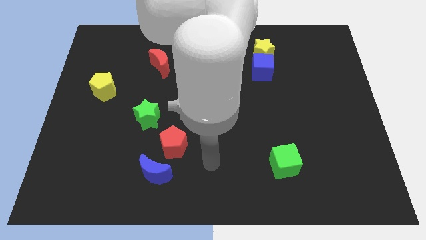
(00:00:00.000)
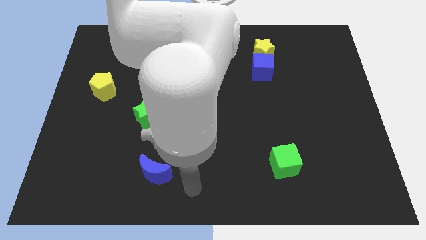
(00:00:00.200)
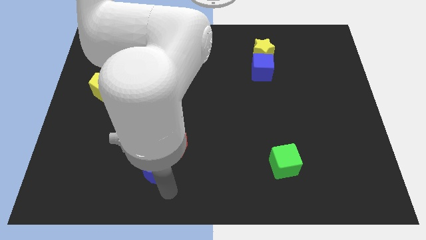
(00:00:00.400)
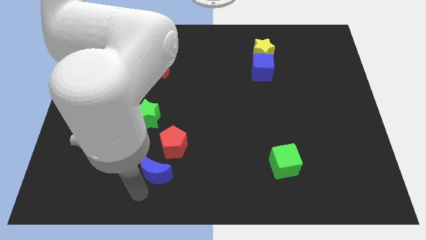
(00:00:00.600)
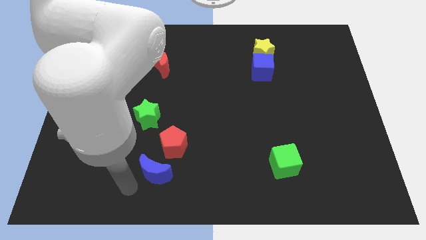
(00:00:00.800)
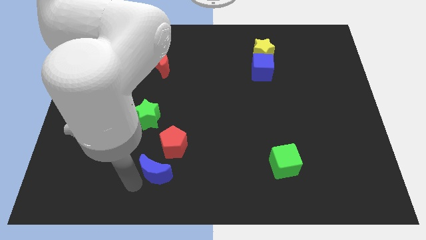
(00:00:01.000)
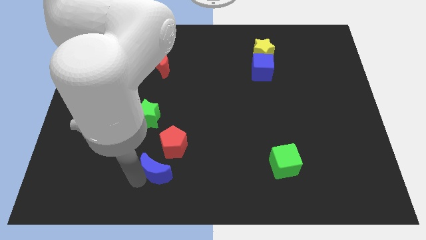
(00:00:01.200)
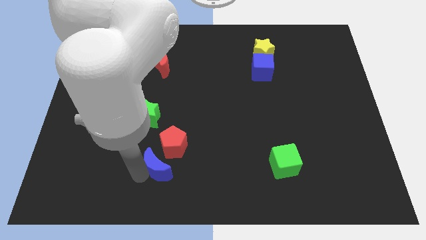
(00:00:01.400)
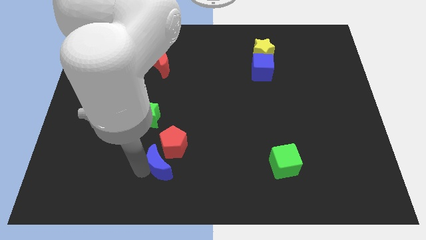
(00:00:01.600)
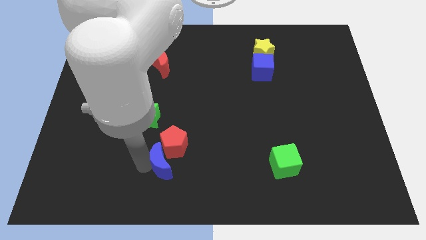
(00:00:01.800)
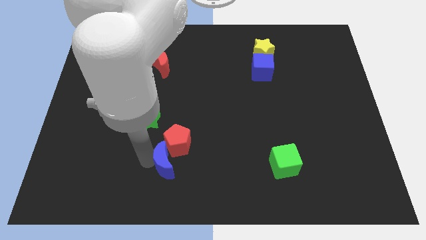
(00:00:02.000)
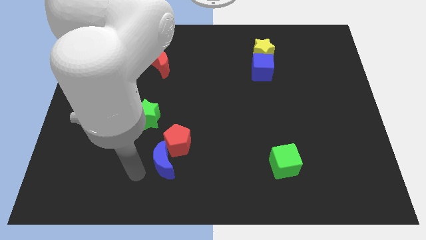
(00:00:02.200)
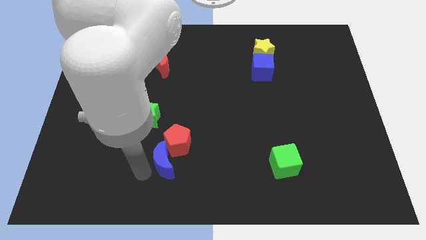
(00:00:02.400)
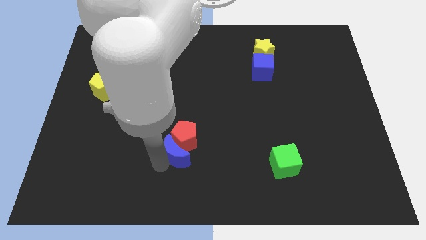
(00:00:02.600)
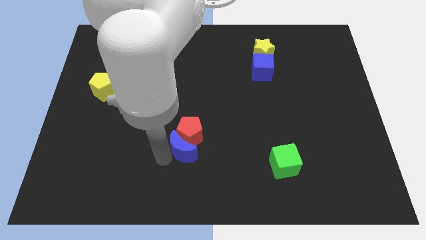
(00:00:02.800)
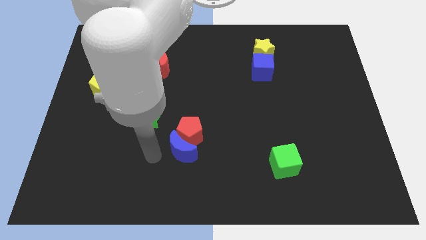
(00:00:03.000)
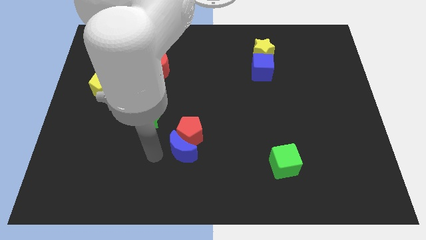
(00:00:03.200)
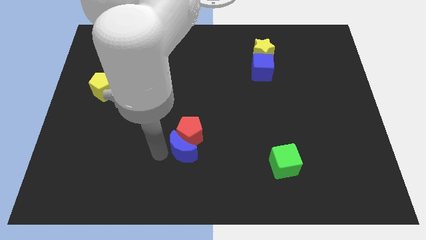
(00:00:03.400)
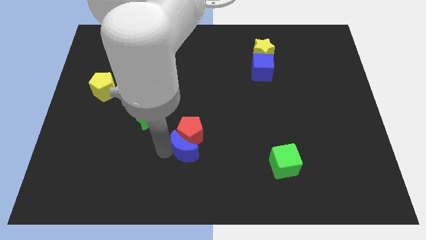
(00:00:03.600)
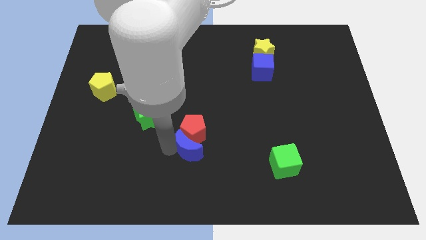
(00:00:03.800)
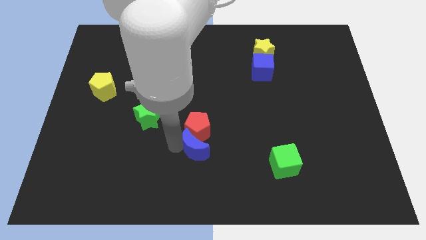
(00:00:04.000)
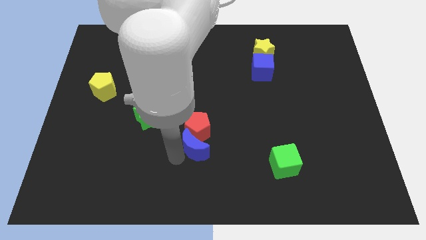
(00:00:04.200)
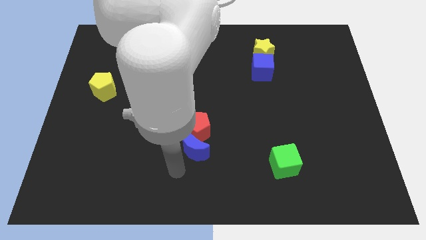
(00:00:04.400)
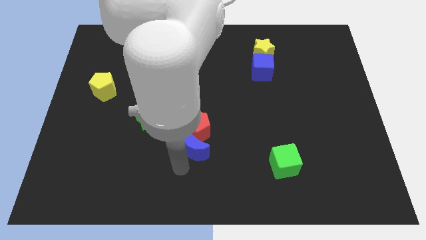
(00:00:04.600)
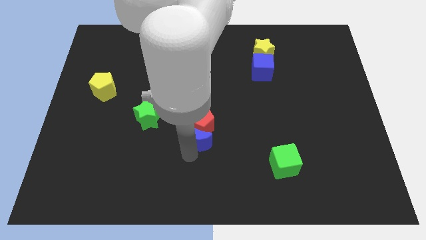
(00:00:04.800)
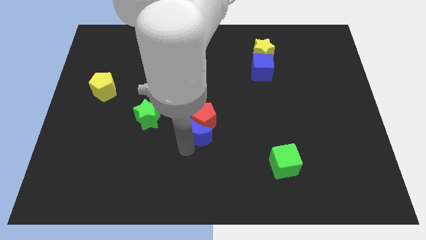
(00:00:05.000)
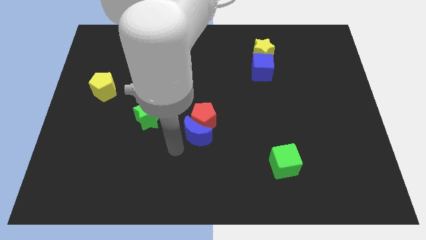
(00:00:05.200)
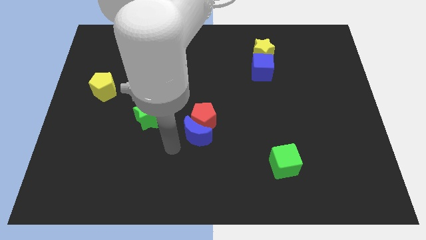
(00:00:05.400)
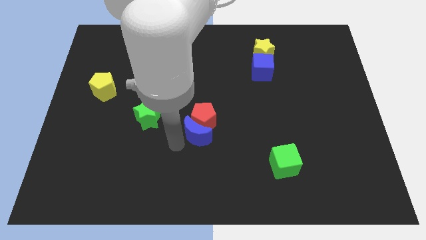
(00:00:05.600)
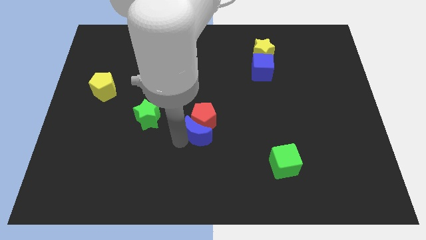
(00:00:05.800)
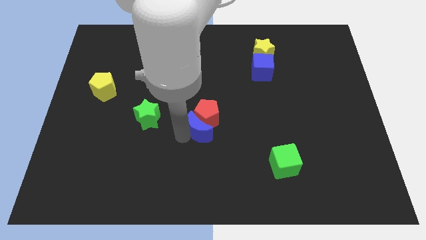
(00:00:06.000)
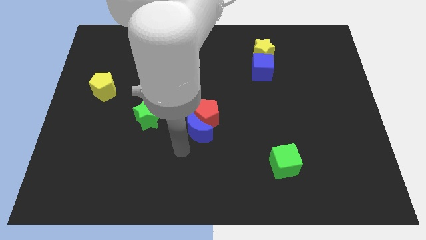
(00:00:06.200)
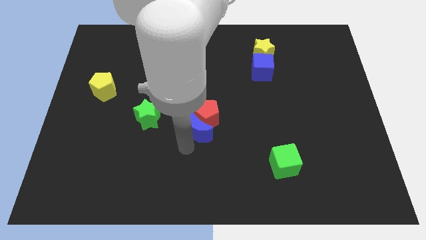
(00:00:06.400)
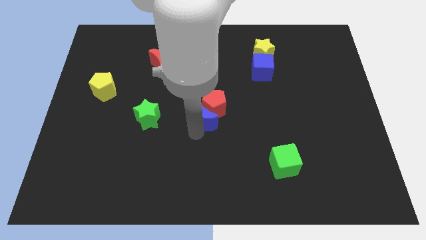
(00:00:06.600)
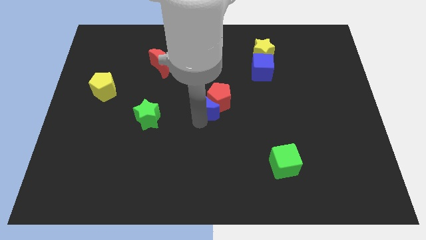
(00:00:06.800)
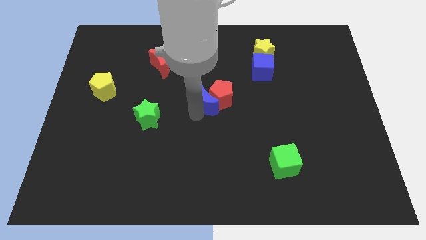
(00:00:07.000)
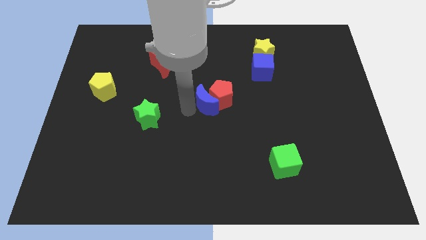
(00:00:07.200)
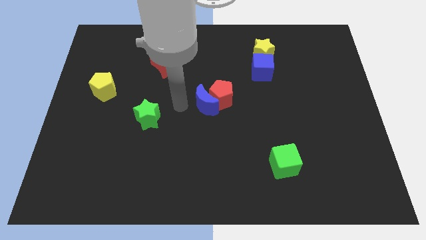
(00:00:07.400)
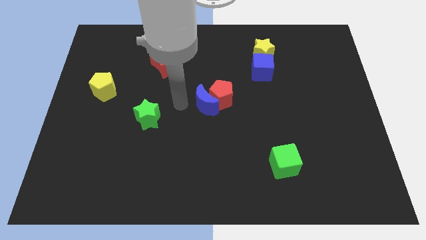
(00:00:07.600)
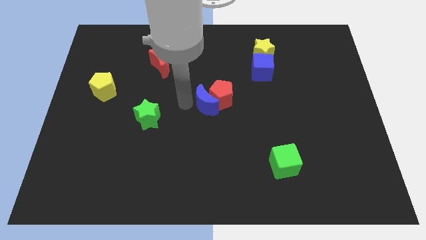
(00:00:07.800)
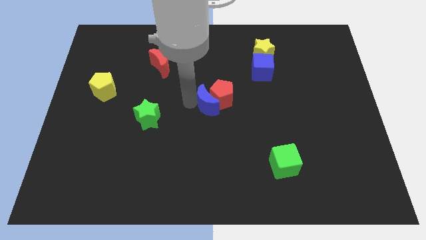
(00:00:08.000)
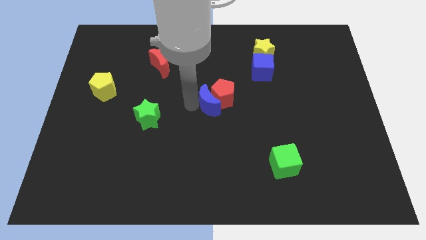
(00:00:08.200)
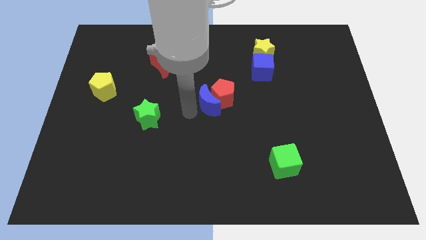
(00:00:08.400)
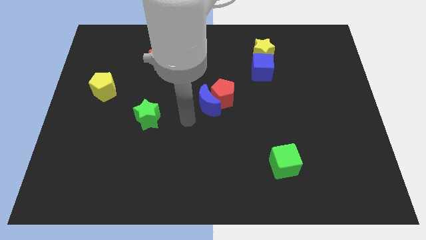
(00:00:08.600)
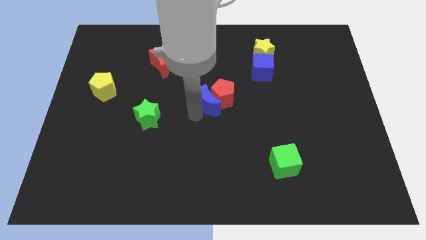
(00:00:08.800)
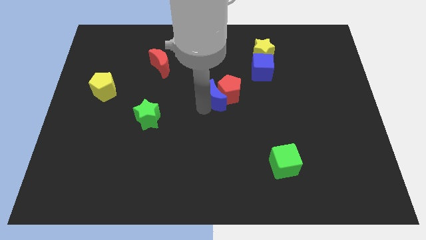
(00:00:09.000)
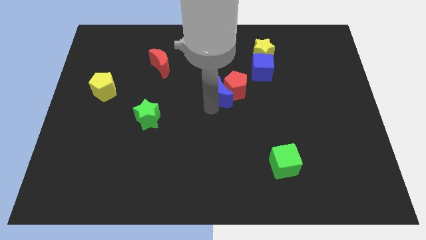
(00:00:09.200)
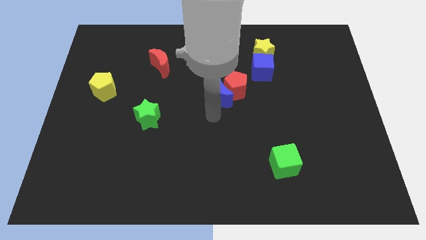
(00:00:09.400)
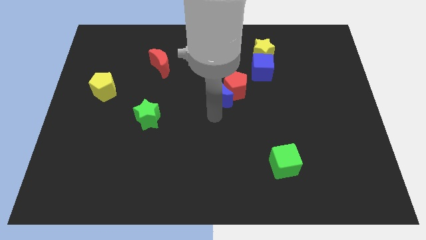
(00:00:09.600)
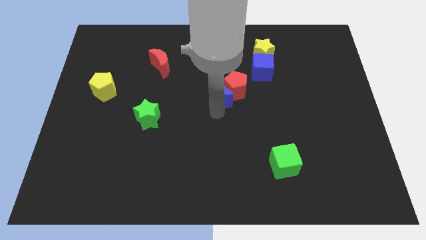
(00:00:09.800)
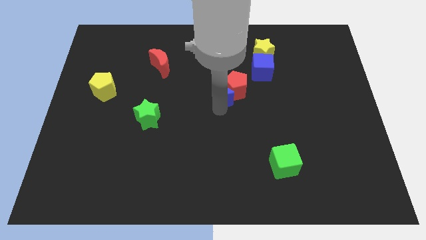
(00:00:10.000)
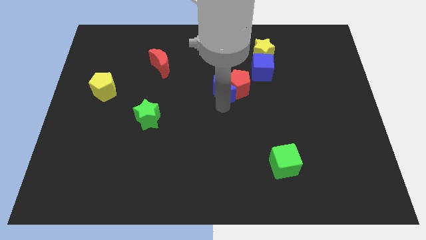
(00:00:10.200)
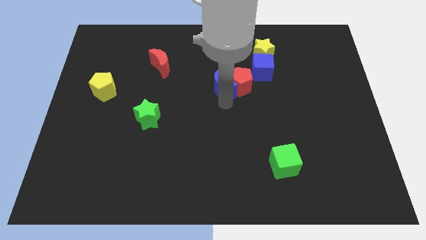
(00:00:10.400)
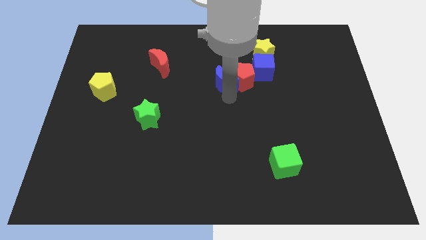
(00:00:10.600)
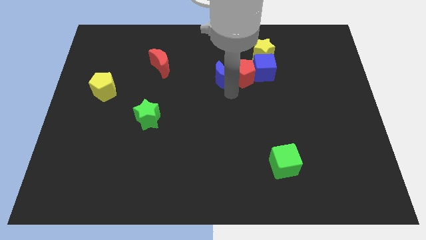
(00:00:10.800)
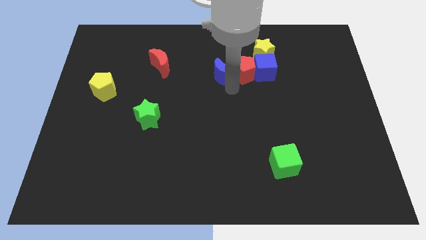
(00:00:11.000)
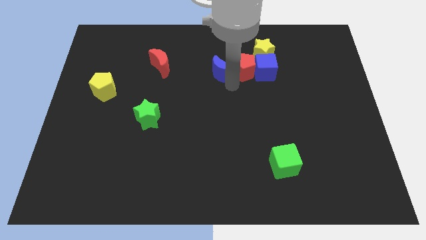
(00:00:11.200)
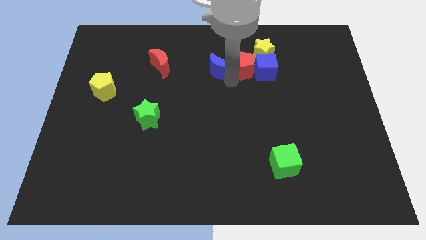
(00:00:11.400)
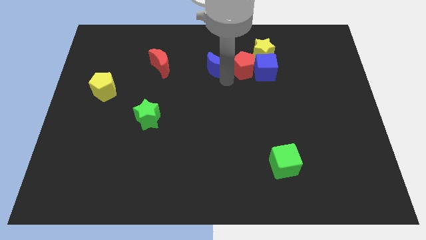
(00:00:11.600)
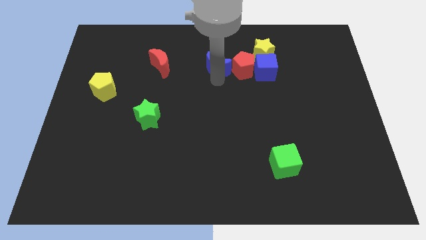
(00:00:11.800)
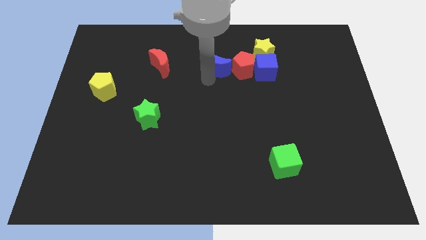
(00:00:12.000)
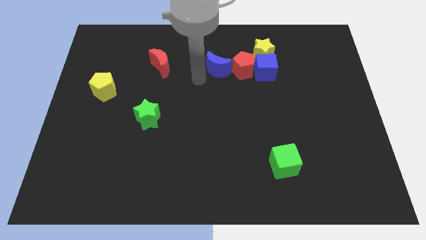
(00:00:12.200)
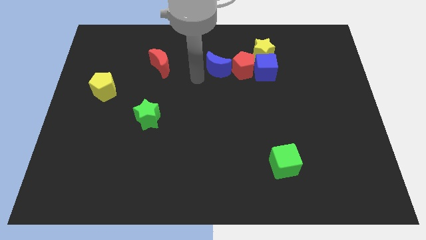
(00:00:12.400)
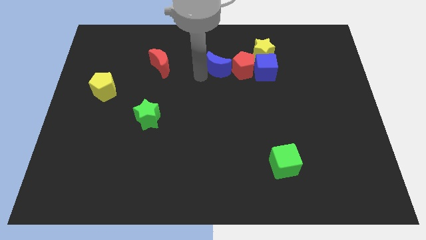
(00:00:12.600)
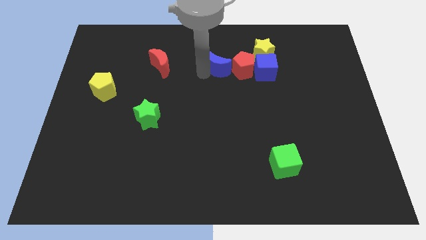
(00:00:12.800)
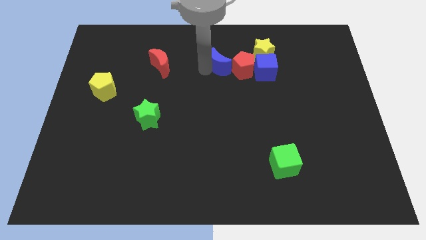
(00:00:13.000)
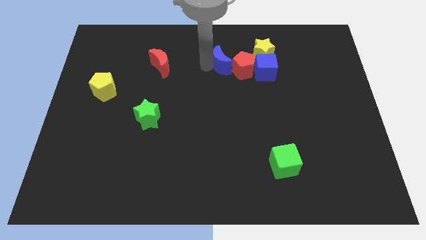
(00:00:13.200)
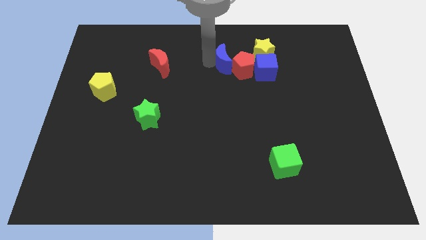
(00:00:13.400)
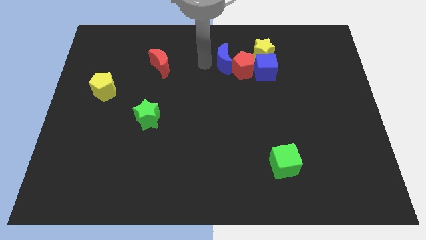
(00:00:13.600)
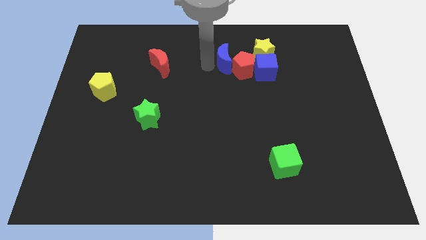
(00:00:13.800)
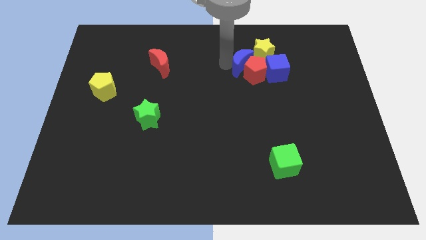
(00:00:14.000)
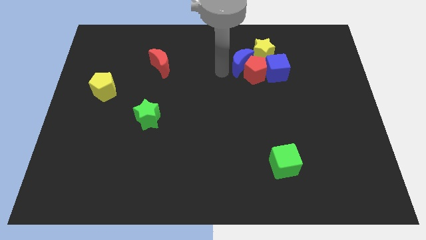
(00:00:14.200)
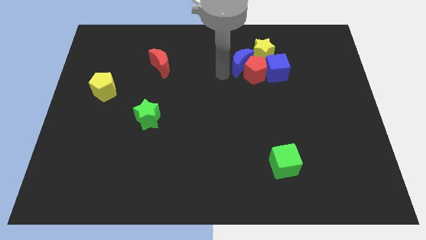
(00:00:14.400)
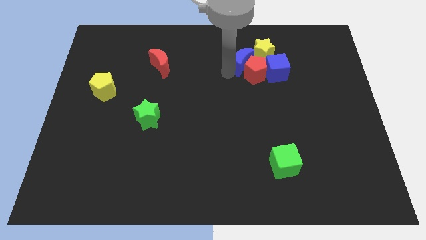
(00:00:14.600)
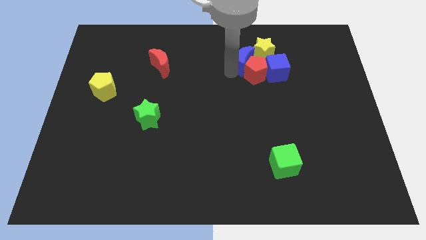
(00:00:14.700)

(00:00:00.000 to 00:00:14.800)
put the blue moon close to the yellow star
